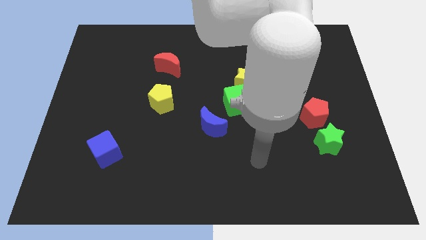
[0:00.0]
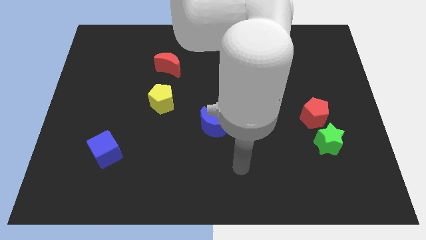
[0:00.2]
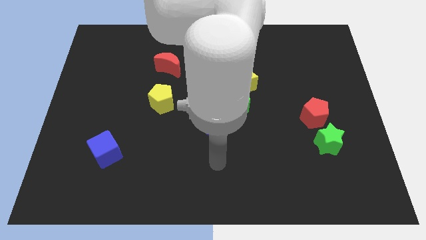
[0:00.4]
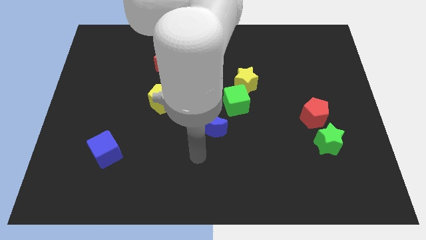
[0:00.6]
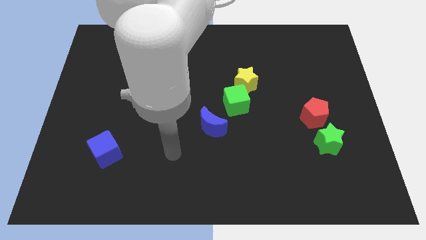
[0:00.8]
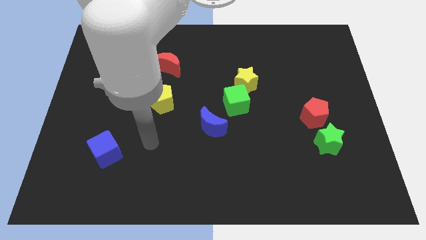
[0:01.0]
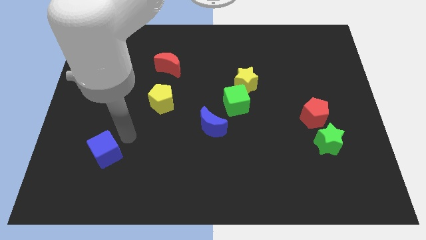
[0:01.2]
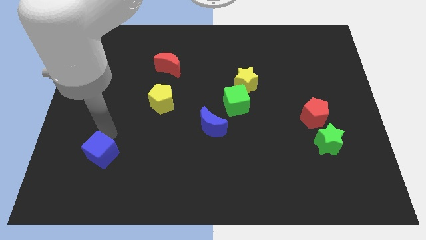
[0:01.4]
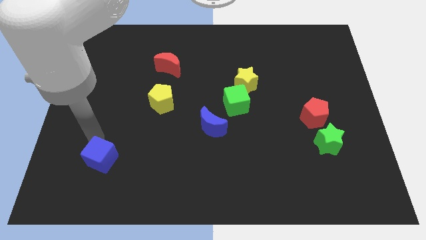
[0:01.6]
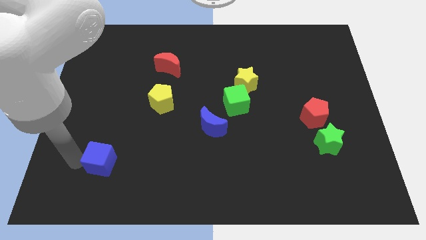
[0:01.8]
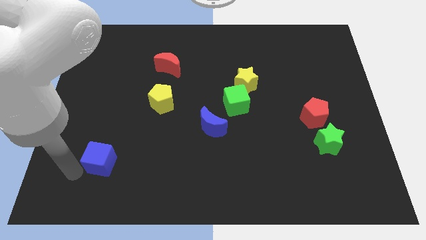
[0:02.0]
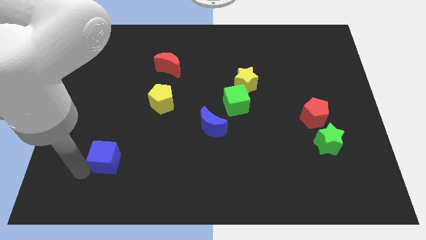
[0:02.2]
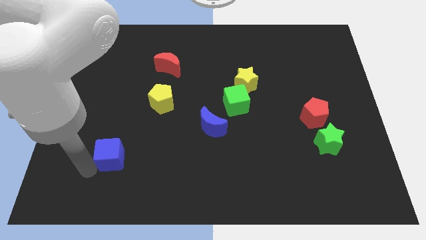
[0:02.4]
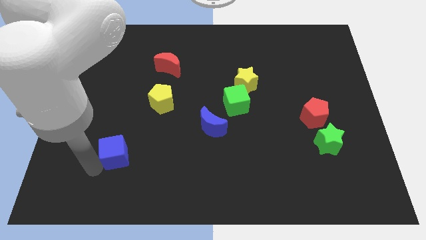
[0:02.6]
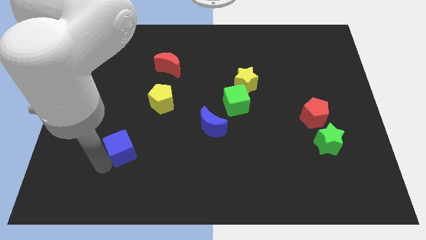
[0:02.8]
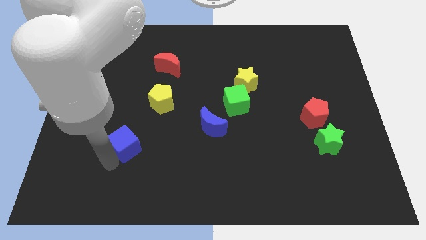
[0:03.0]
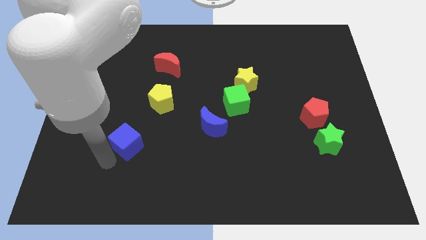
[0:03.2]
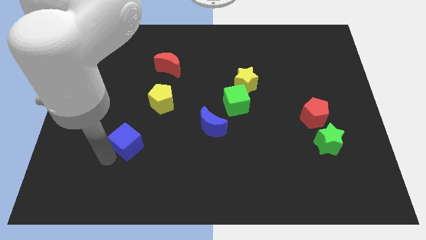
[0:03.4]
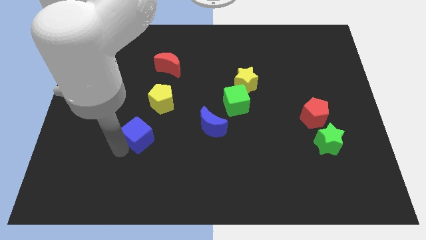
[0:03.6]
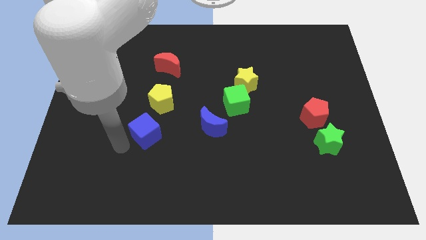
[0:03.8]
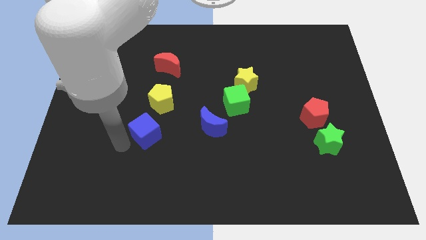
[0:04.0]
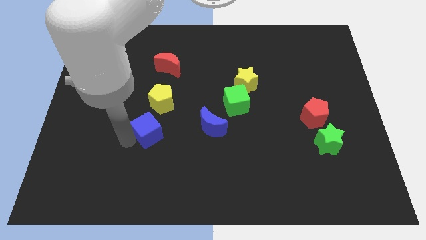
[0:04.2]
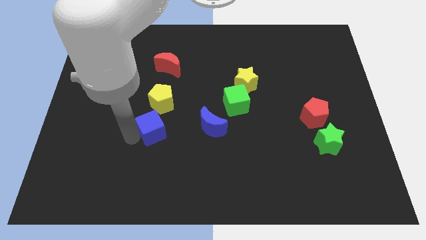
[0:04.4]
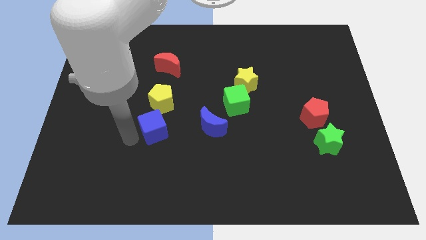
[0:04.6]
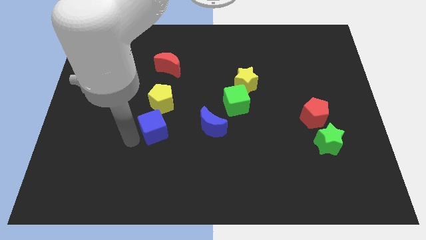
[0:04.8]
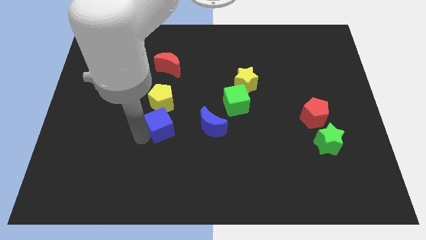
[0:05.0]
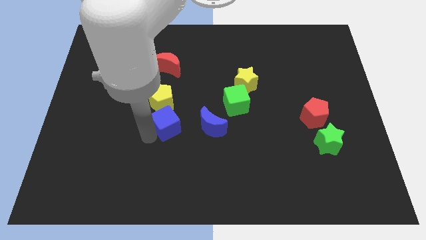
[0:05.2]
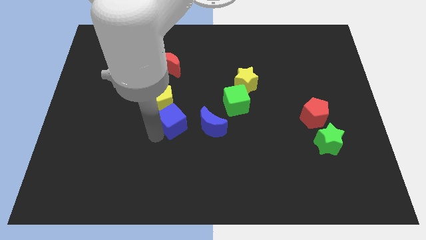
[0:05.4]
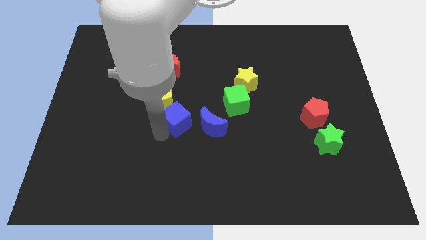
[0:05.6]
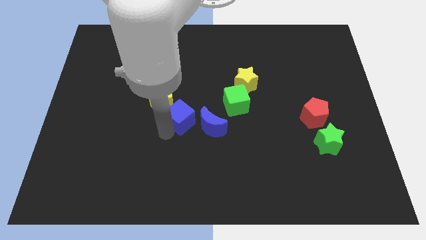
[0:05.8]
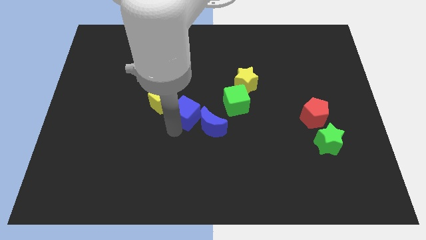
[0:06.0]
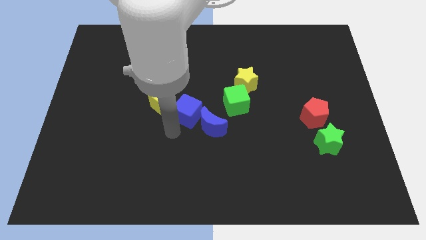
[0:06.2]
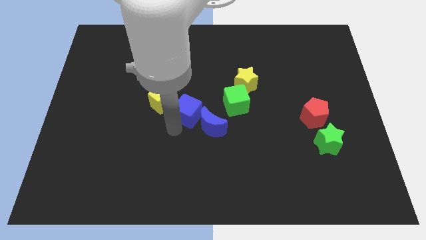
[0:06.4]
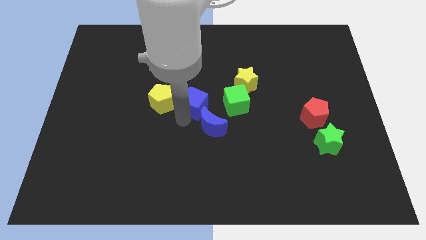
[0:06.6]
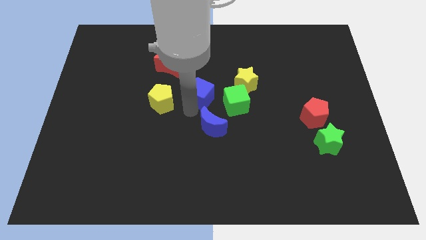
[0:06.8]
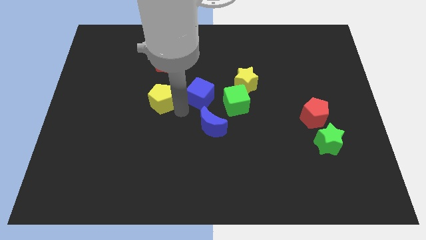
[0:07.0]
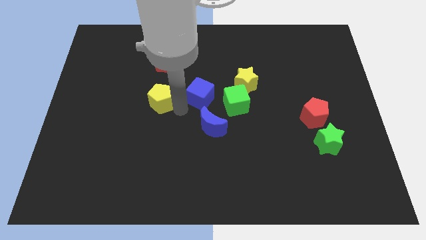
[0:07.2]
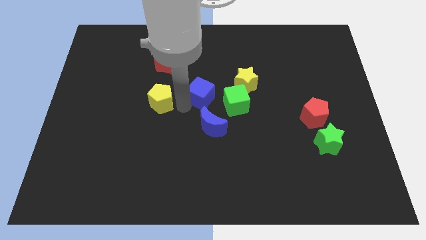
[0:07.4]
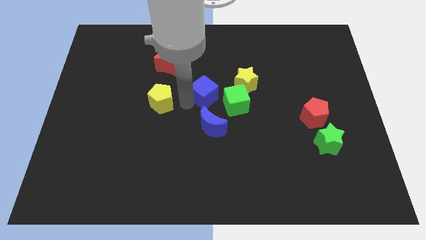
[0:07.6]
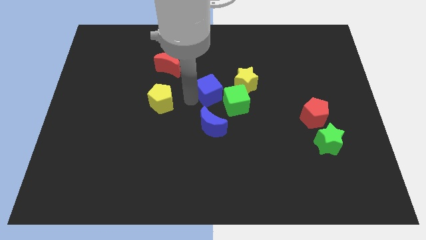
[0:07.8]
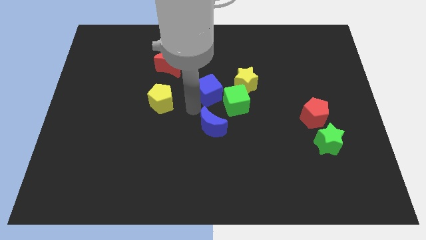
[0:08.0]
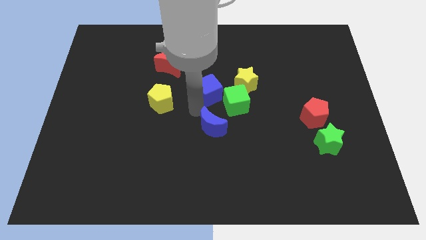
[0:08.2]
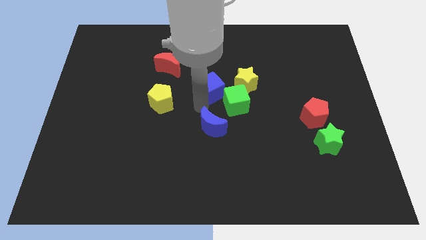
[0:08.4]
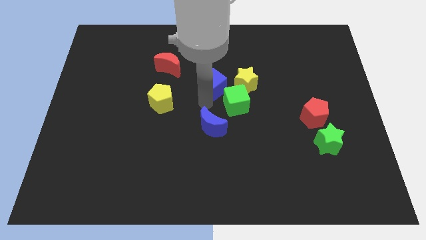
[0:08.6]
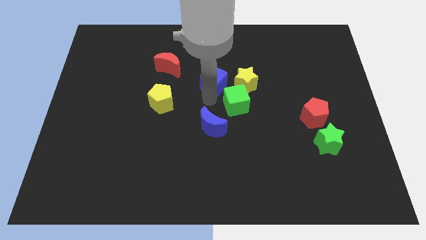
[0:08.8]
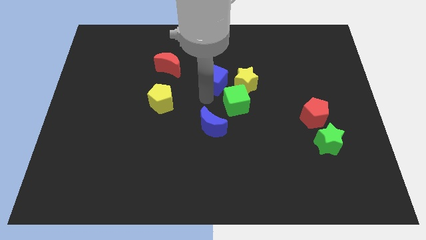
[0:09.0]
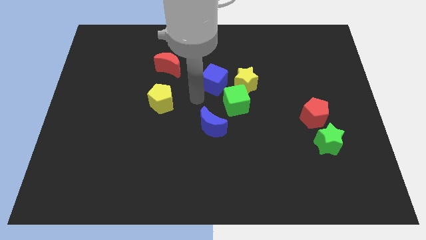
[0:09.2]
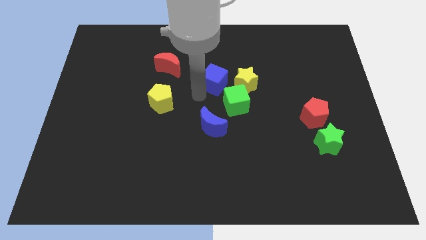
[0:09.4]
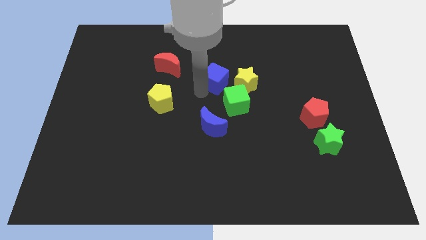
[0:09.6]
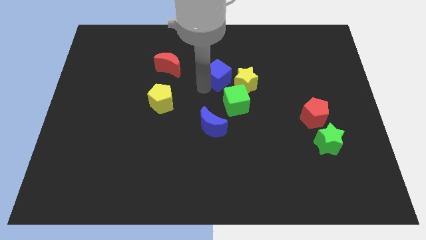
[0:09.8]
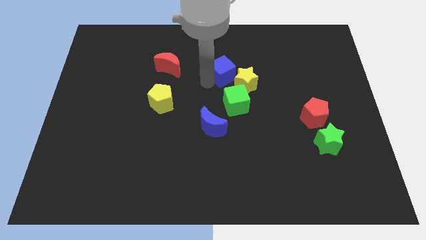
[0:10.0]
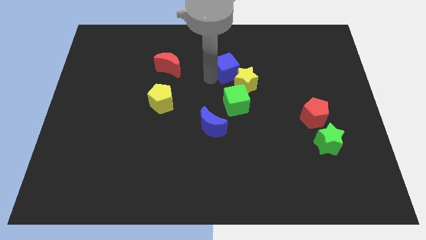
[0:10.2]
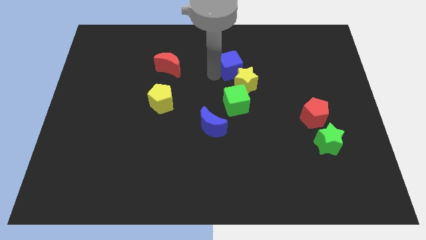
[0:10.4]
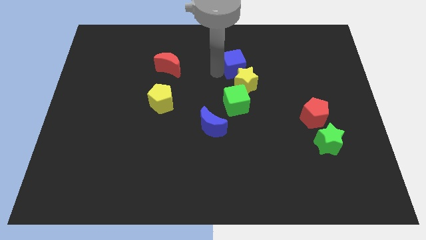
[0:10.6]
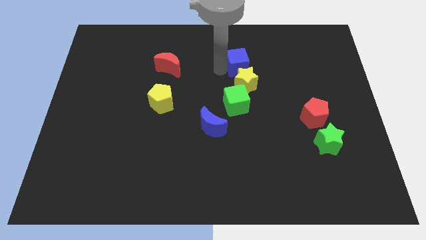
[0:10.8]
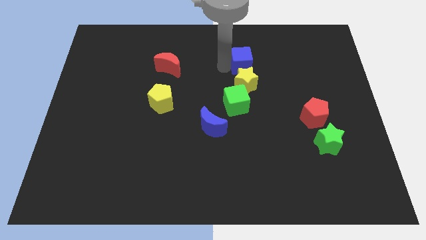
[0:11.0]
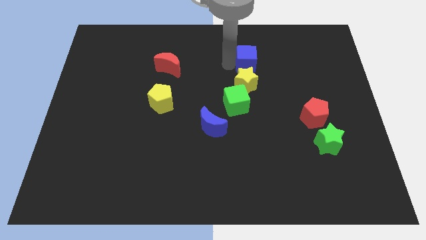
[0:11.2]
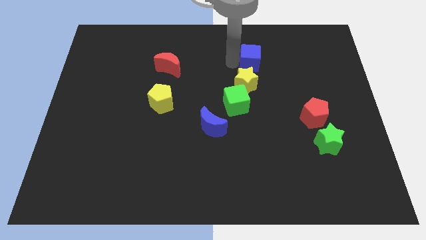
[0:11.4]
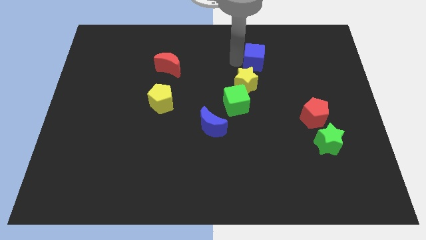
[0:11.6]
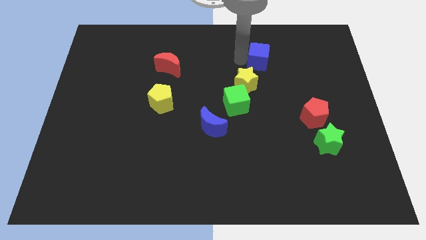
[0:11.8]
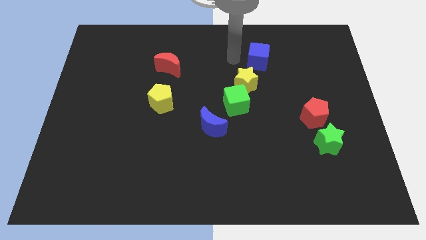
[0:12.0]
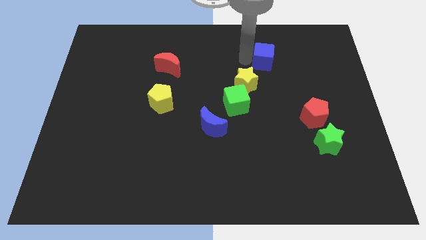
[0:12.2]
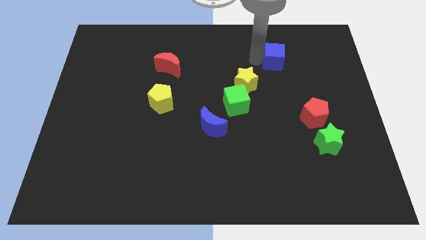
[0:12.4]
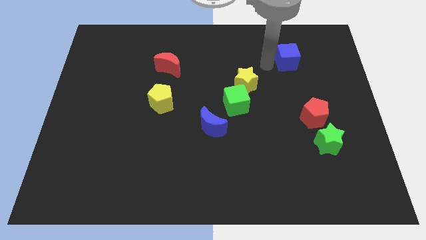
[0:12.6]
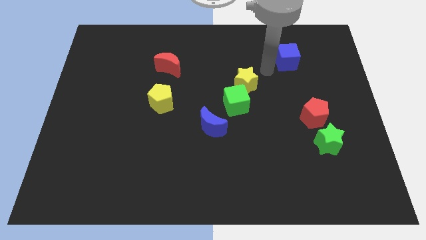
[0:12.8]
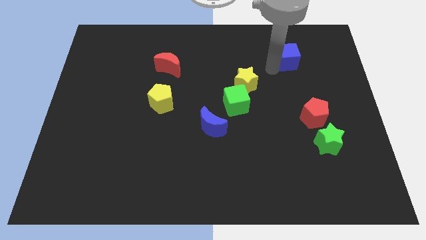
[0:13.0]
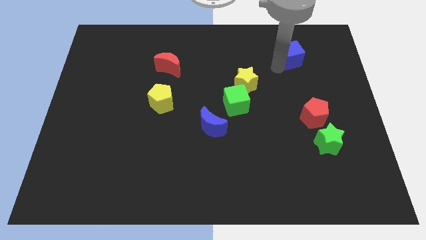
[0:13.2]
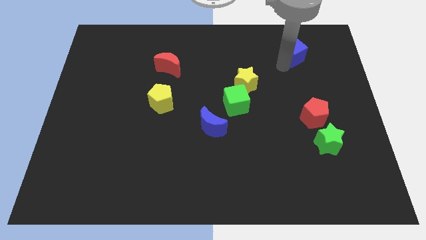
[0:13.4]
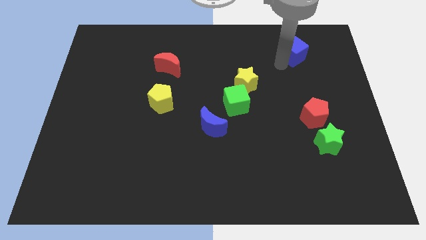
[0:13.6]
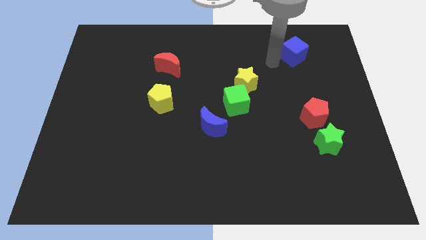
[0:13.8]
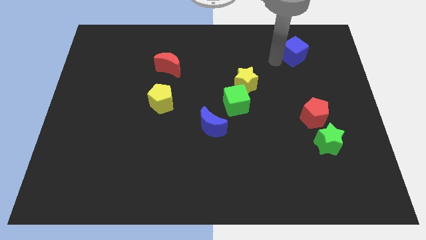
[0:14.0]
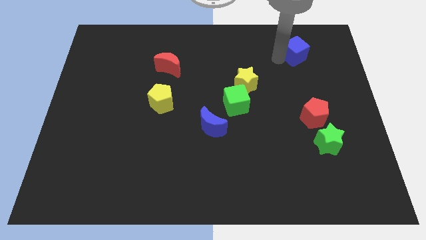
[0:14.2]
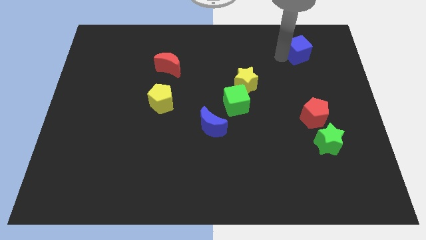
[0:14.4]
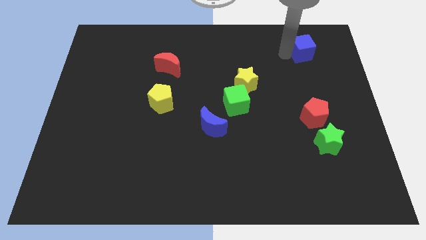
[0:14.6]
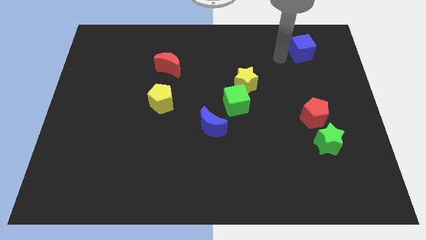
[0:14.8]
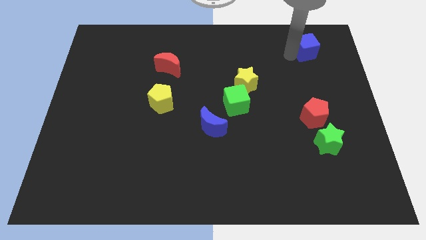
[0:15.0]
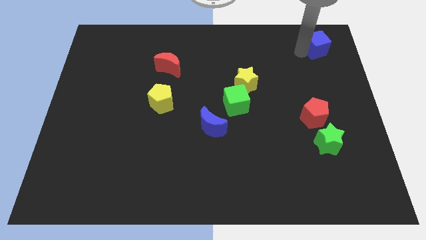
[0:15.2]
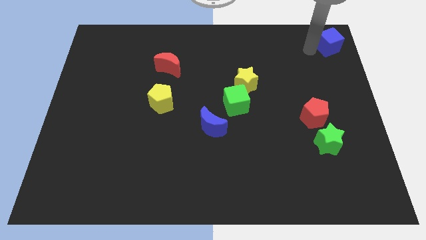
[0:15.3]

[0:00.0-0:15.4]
put the blue cube to the top right
